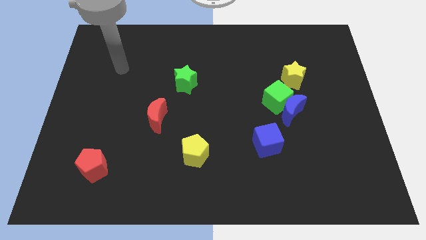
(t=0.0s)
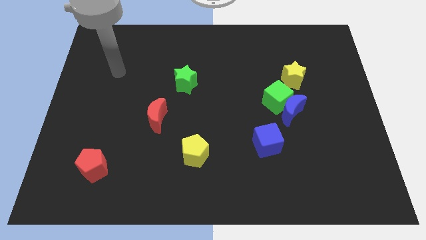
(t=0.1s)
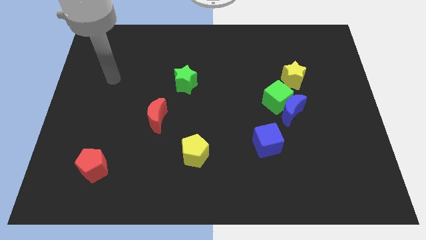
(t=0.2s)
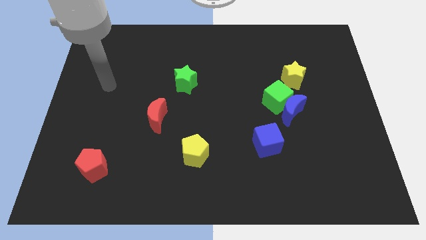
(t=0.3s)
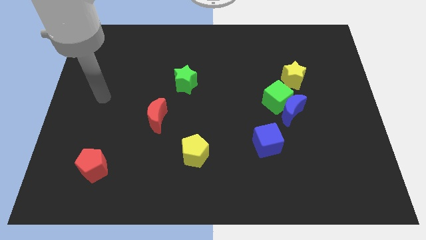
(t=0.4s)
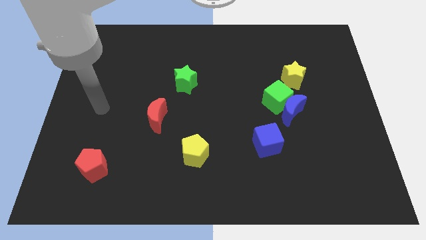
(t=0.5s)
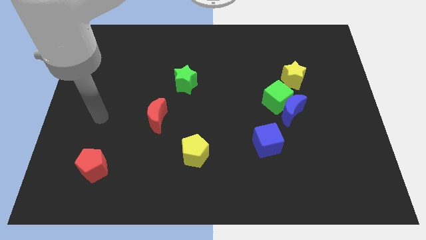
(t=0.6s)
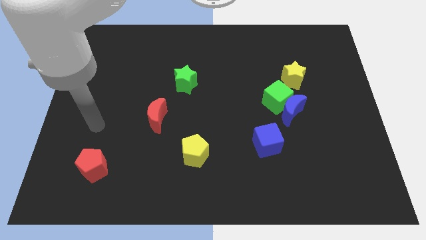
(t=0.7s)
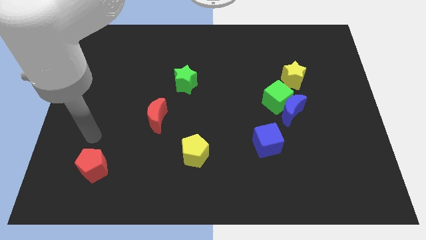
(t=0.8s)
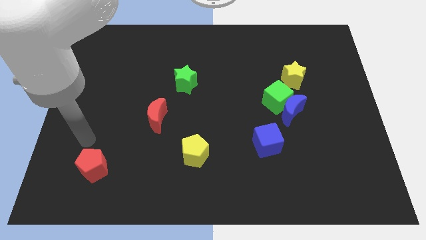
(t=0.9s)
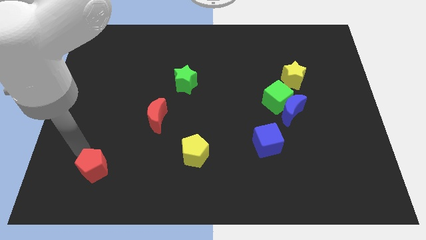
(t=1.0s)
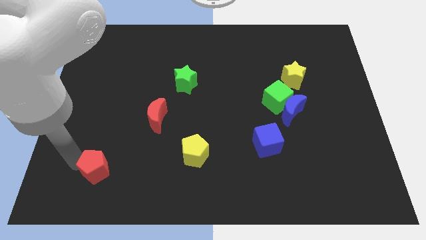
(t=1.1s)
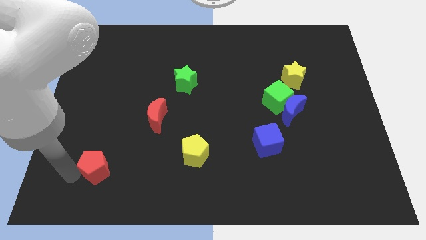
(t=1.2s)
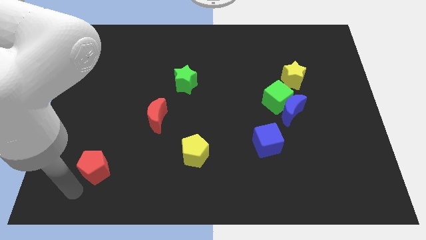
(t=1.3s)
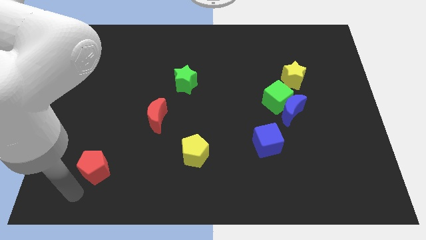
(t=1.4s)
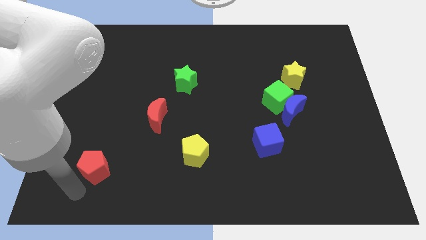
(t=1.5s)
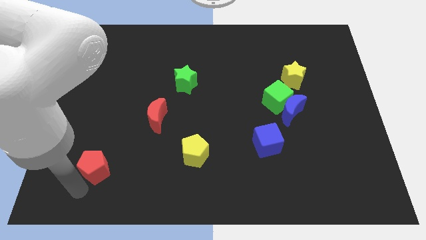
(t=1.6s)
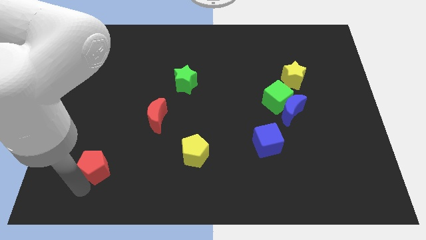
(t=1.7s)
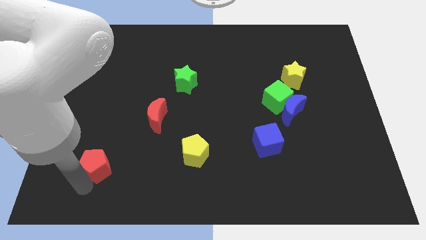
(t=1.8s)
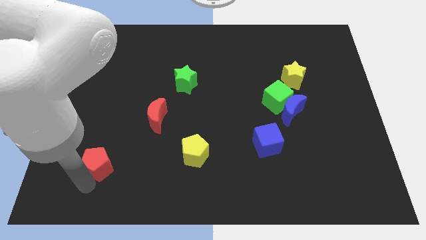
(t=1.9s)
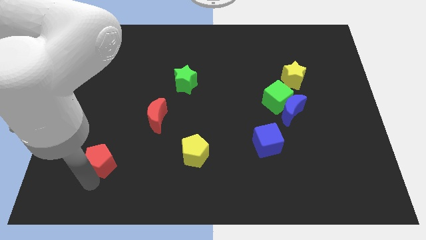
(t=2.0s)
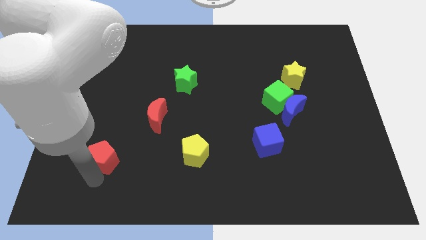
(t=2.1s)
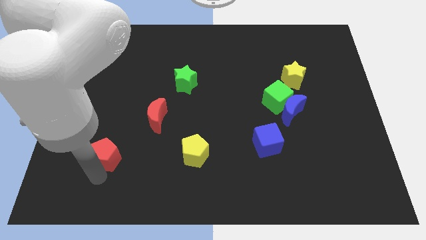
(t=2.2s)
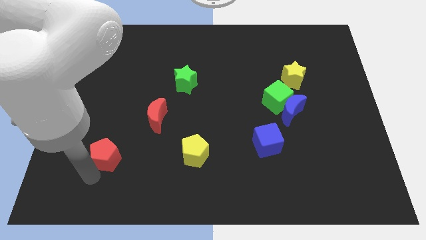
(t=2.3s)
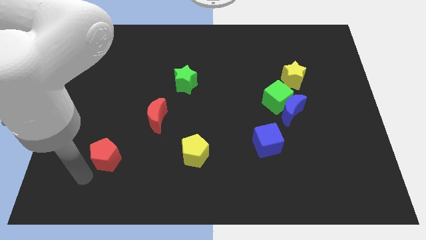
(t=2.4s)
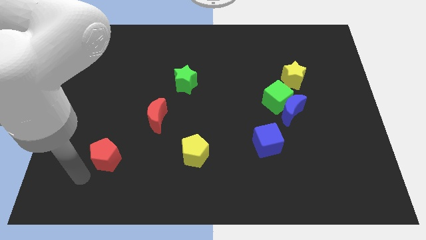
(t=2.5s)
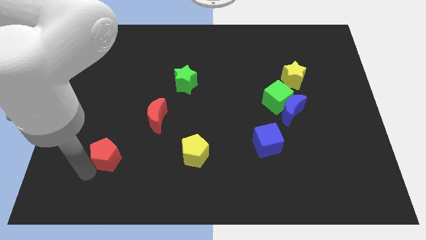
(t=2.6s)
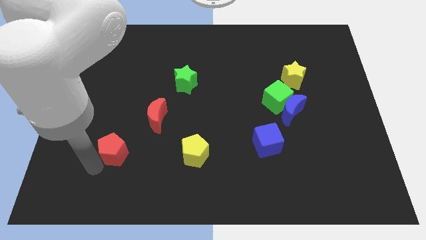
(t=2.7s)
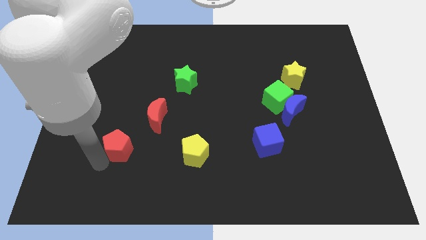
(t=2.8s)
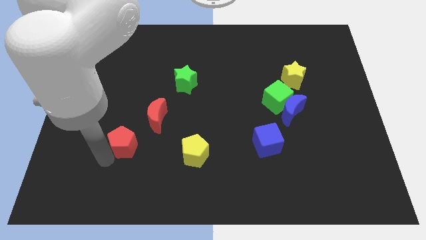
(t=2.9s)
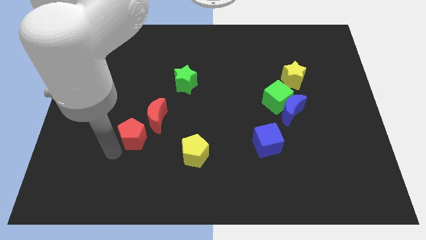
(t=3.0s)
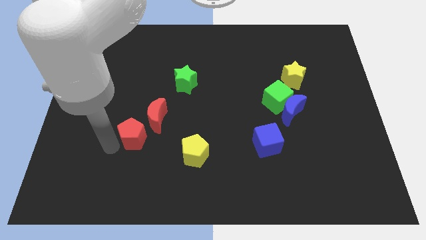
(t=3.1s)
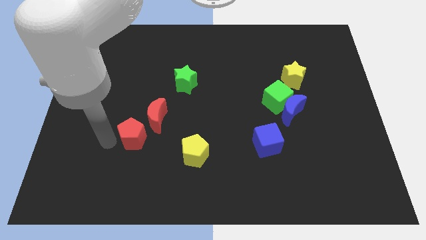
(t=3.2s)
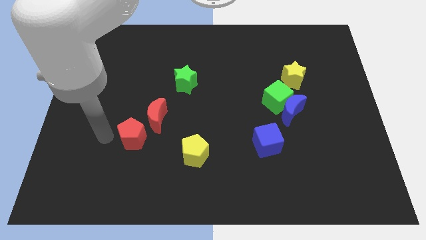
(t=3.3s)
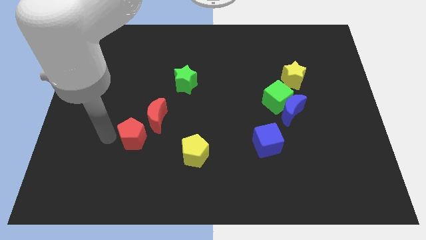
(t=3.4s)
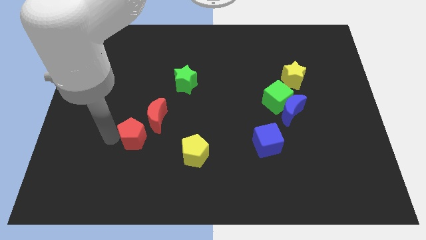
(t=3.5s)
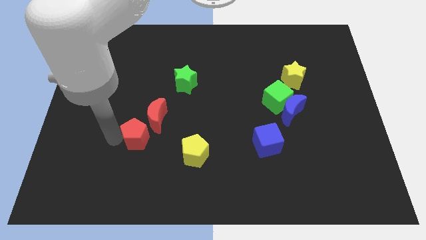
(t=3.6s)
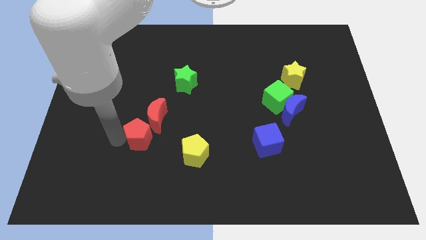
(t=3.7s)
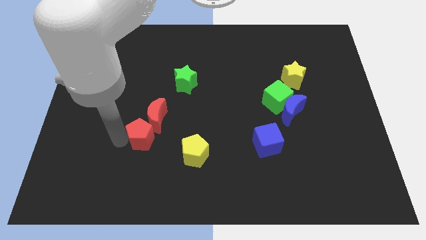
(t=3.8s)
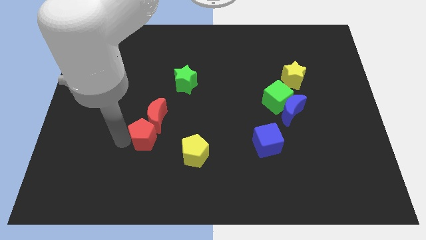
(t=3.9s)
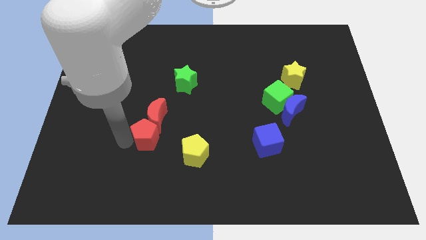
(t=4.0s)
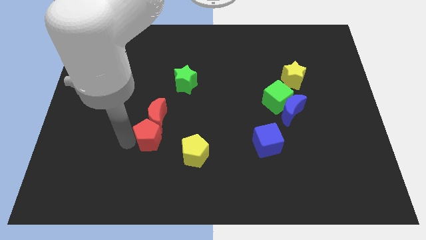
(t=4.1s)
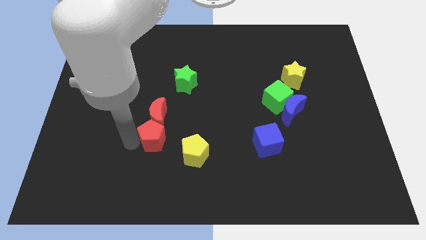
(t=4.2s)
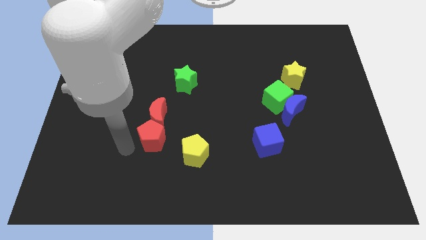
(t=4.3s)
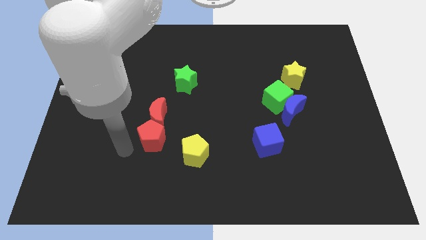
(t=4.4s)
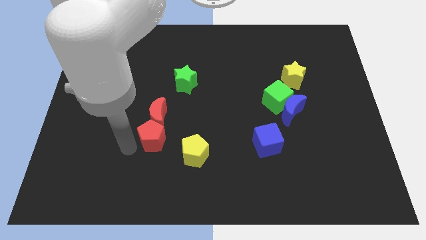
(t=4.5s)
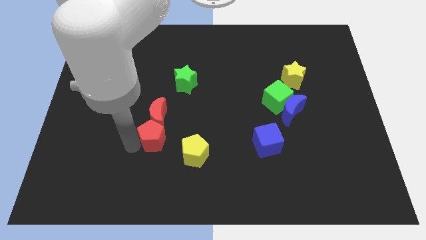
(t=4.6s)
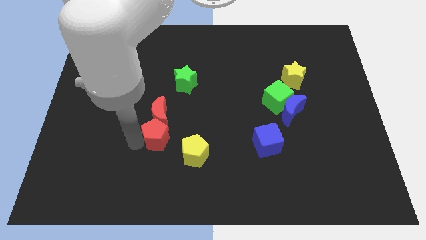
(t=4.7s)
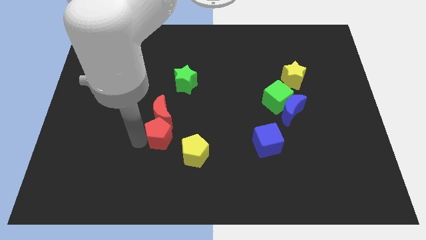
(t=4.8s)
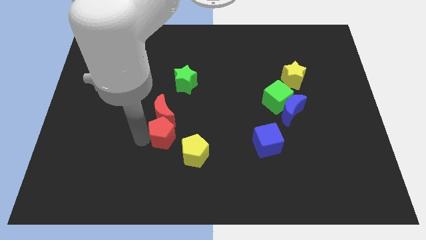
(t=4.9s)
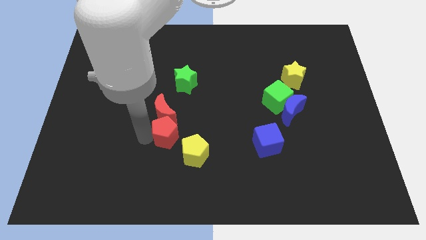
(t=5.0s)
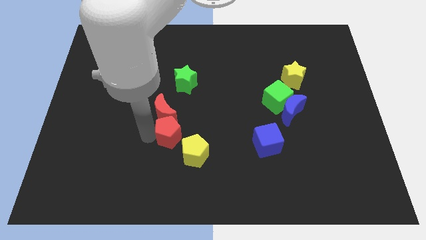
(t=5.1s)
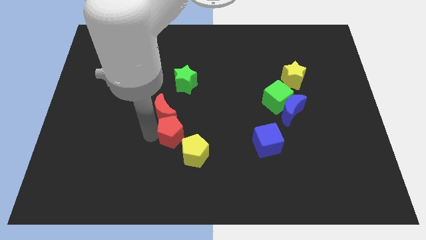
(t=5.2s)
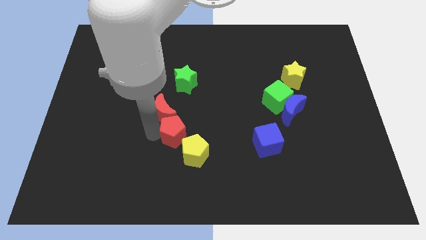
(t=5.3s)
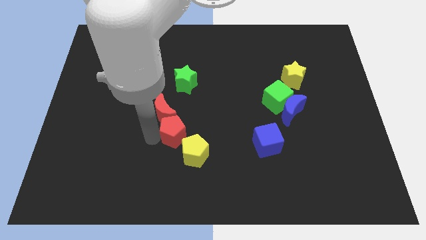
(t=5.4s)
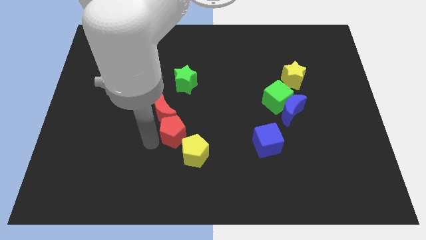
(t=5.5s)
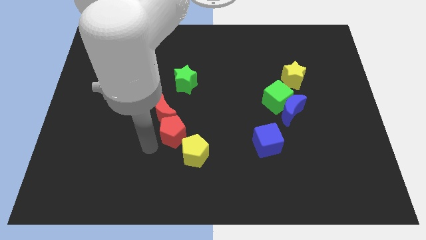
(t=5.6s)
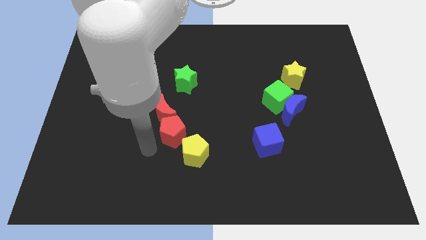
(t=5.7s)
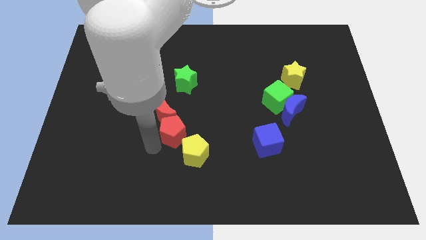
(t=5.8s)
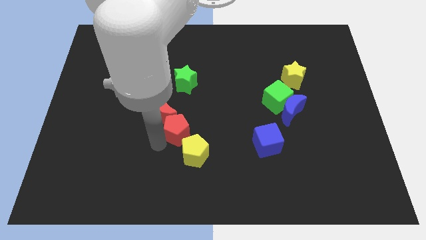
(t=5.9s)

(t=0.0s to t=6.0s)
push the red pentagon to the middle
